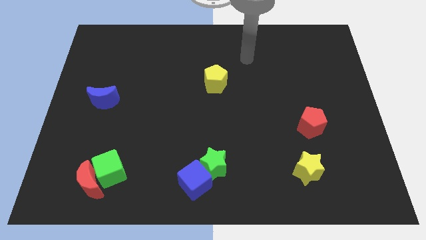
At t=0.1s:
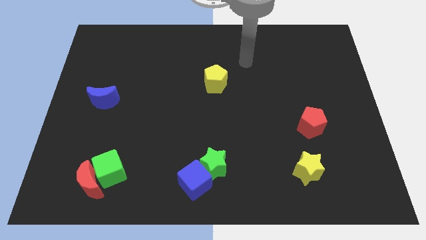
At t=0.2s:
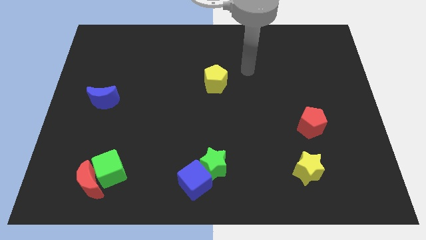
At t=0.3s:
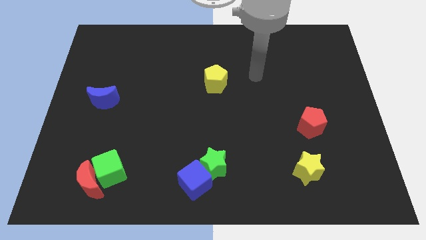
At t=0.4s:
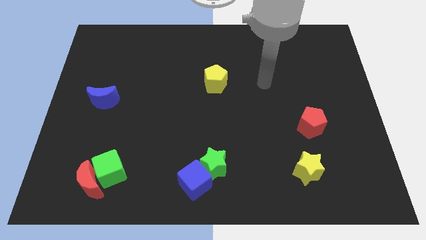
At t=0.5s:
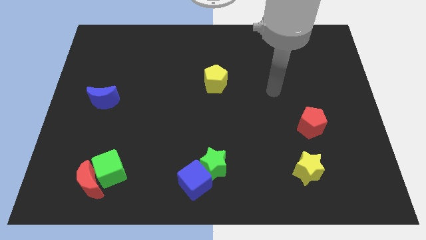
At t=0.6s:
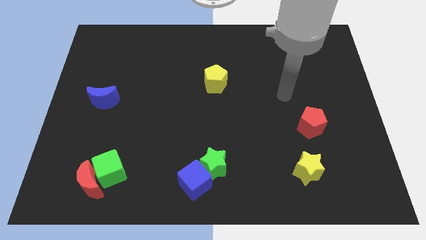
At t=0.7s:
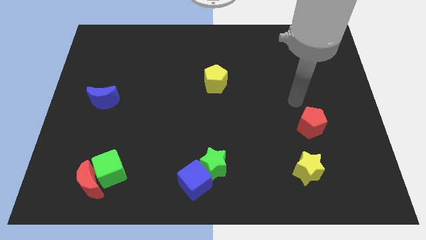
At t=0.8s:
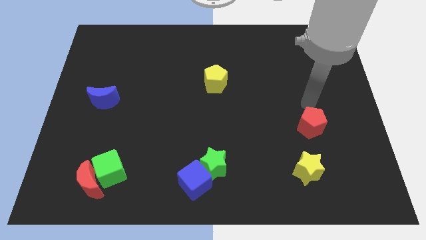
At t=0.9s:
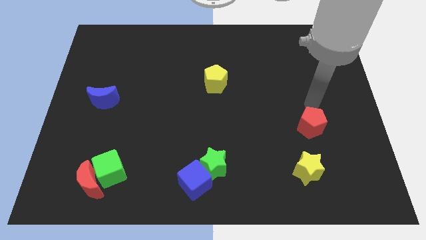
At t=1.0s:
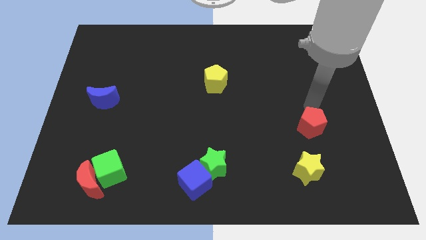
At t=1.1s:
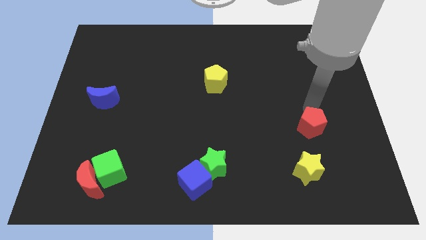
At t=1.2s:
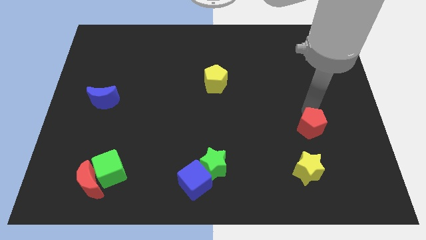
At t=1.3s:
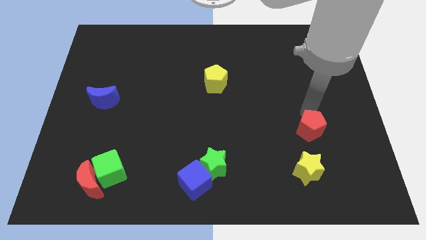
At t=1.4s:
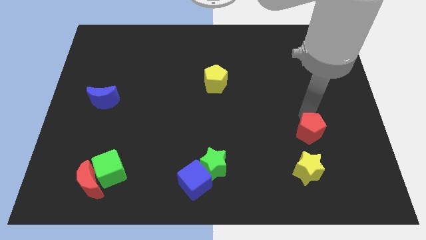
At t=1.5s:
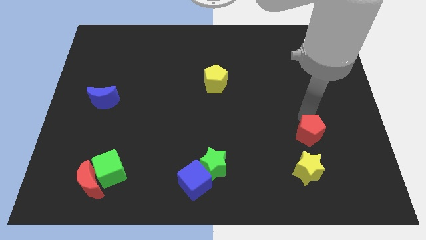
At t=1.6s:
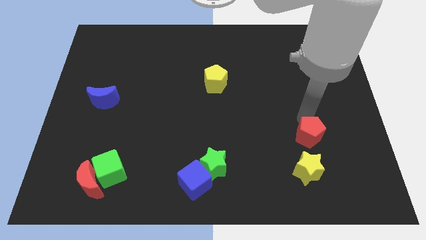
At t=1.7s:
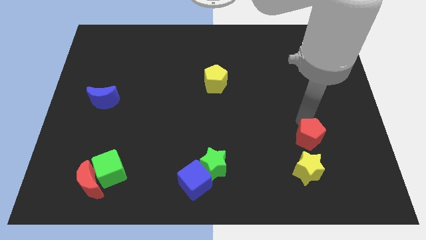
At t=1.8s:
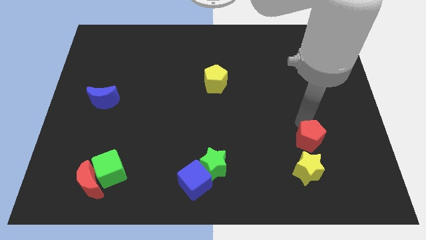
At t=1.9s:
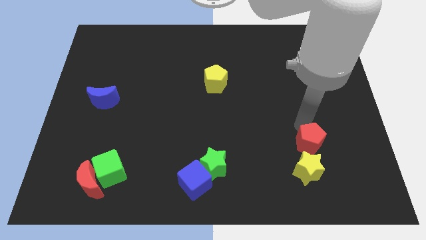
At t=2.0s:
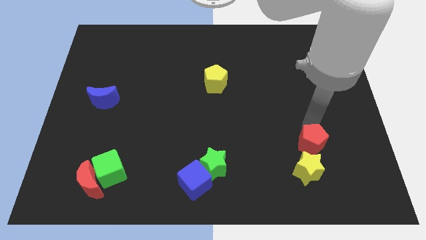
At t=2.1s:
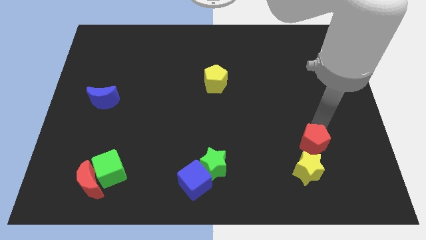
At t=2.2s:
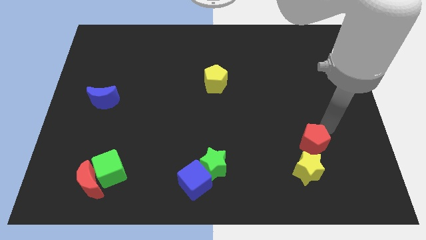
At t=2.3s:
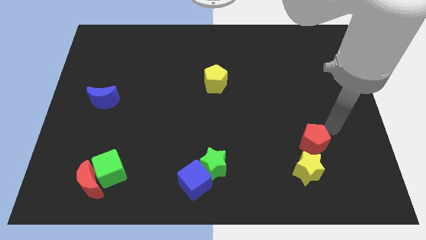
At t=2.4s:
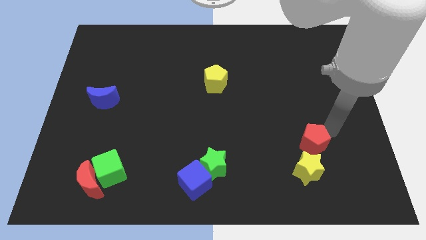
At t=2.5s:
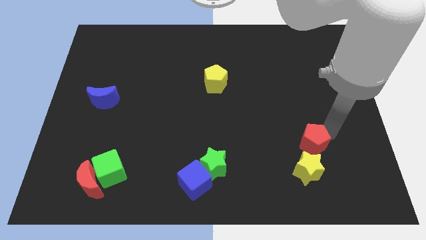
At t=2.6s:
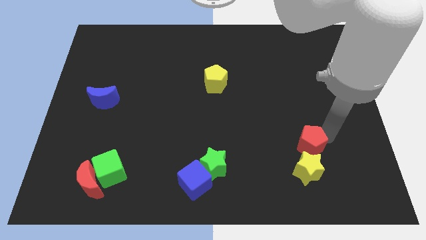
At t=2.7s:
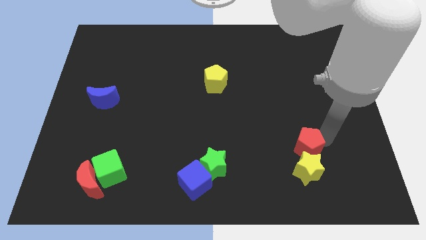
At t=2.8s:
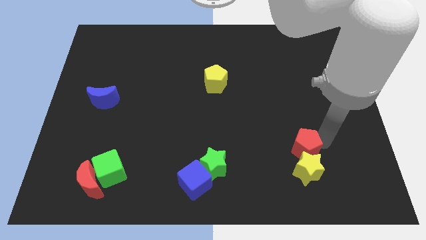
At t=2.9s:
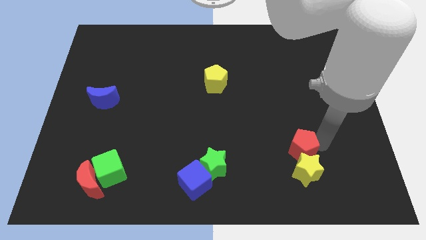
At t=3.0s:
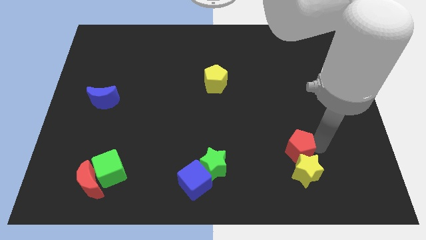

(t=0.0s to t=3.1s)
push the red pentagon downwards and then to the left somewhat

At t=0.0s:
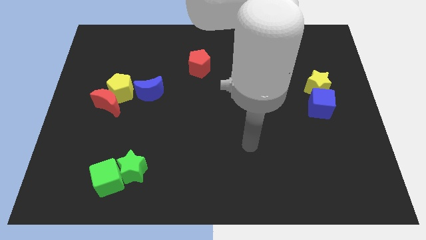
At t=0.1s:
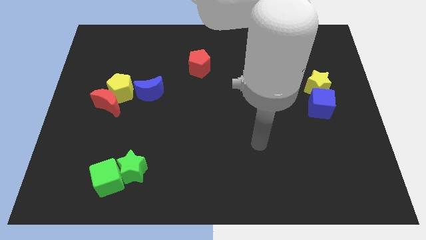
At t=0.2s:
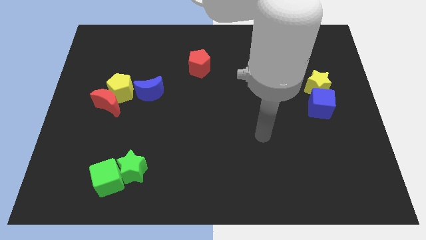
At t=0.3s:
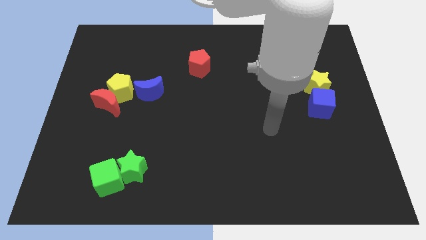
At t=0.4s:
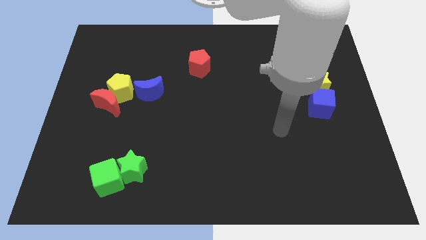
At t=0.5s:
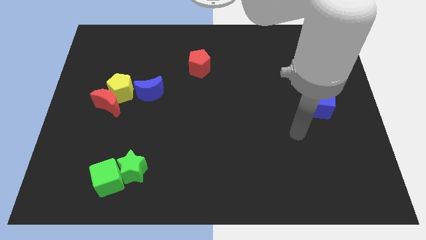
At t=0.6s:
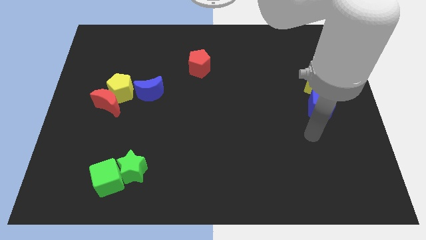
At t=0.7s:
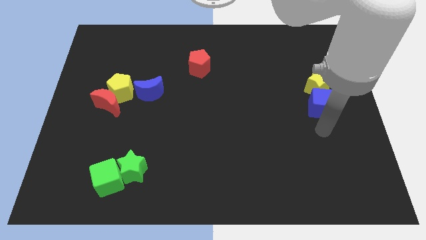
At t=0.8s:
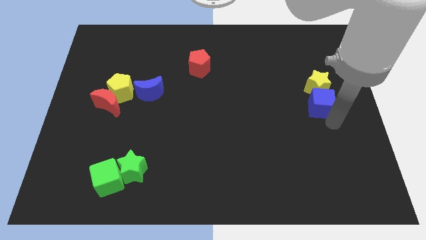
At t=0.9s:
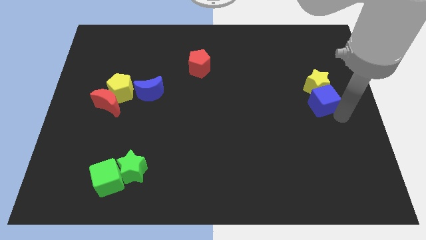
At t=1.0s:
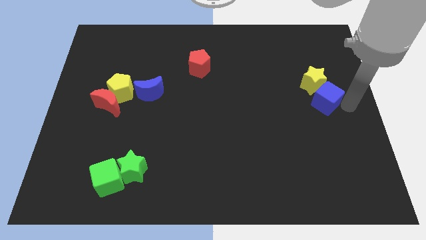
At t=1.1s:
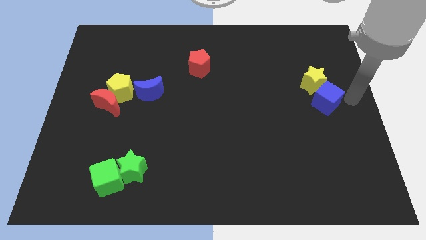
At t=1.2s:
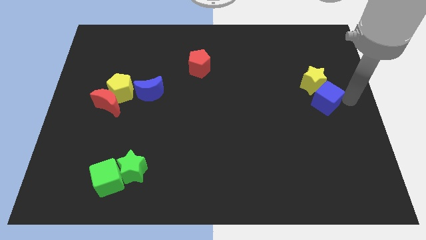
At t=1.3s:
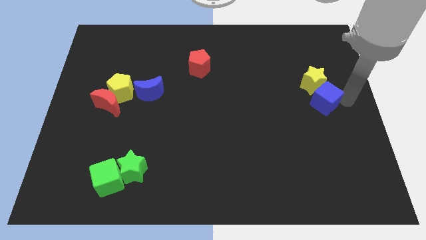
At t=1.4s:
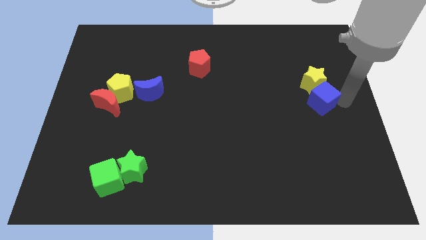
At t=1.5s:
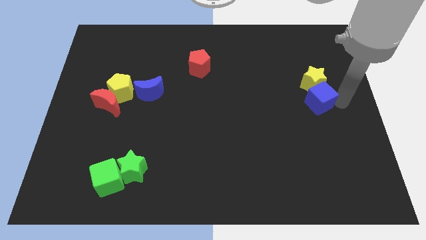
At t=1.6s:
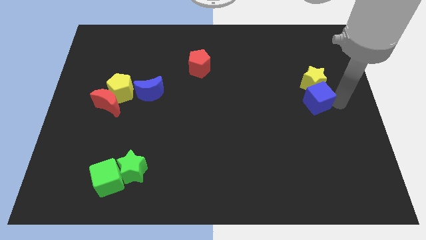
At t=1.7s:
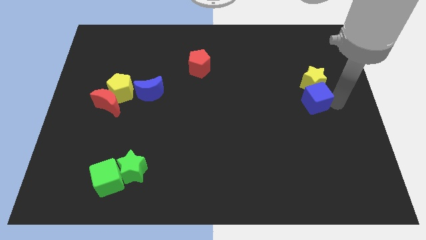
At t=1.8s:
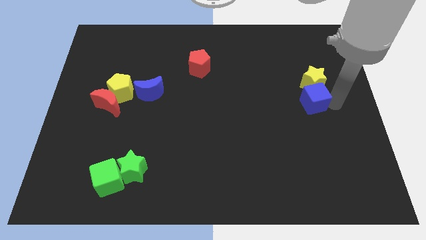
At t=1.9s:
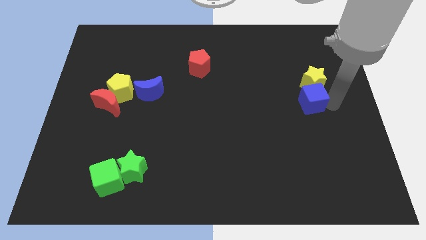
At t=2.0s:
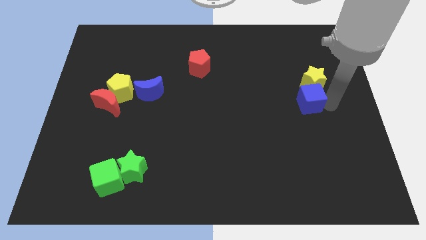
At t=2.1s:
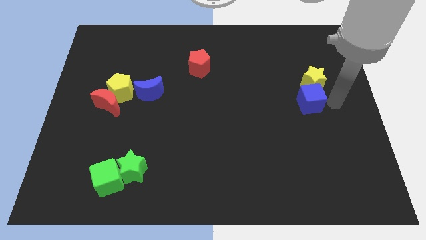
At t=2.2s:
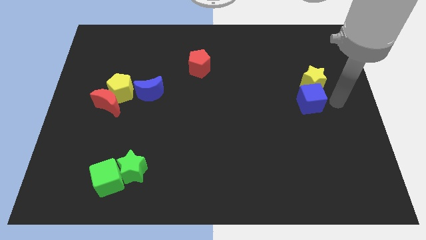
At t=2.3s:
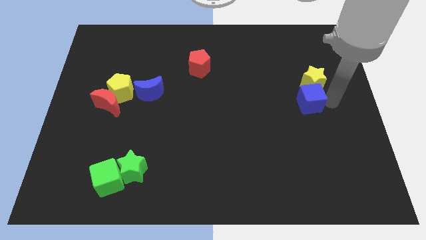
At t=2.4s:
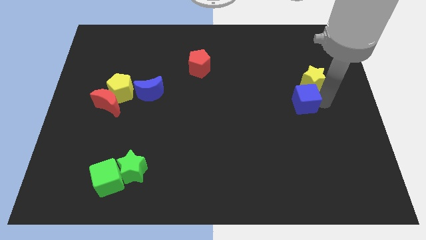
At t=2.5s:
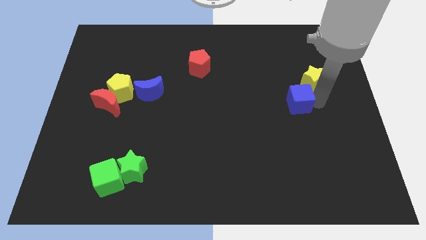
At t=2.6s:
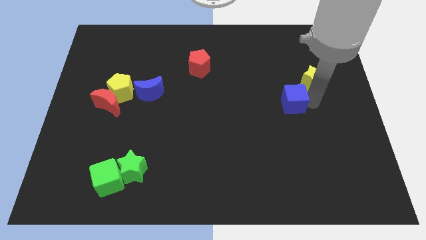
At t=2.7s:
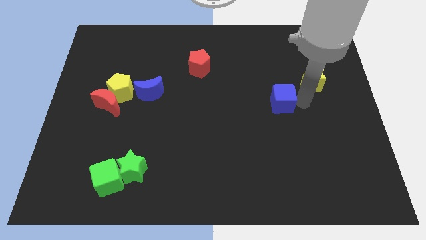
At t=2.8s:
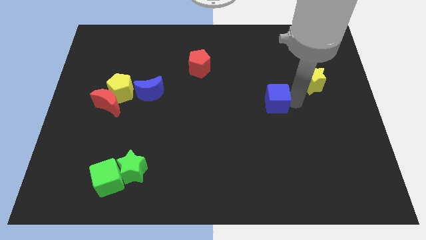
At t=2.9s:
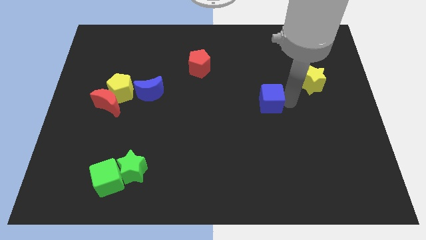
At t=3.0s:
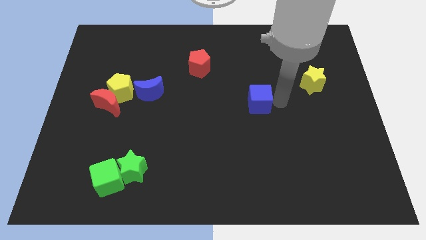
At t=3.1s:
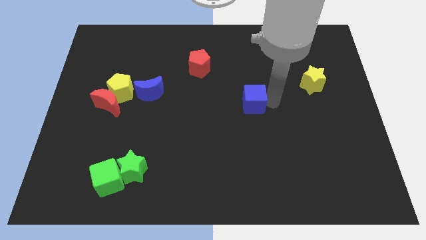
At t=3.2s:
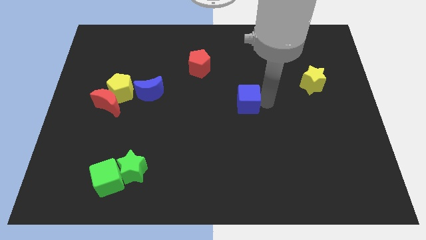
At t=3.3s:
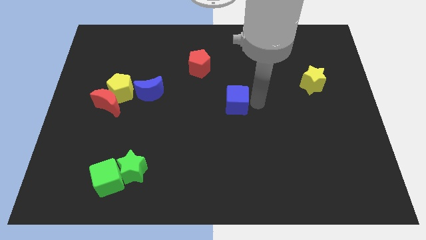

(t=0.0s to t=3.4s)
move the blue cube to the left

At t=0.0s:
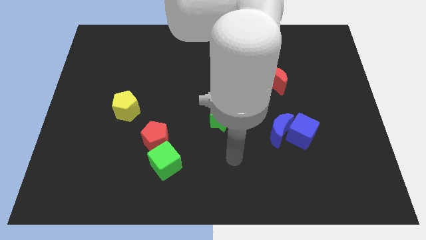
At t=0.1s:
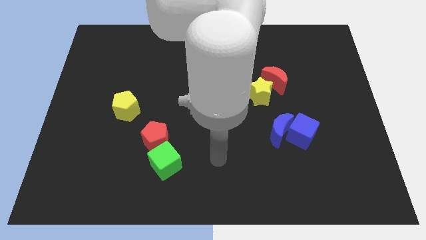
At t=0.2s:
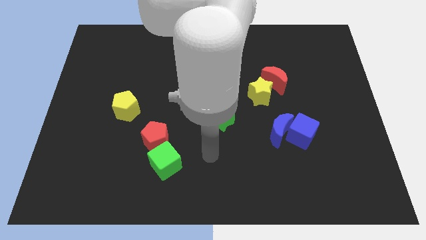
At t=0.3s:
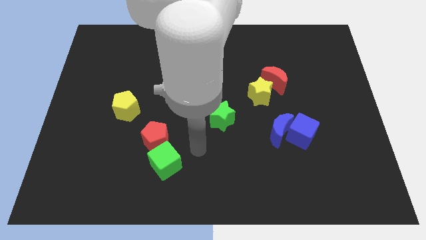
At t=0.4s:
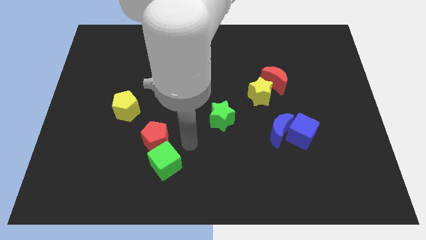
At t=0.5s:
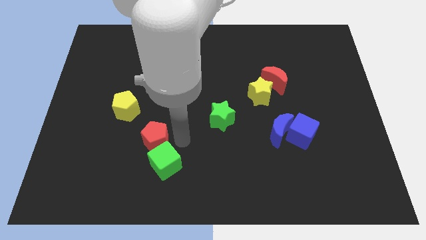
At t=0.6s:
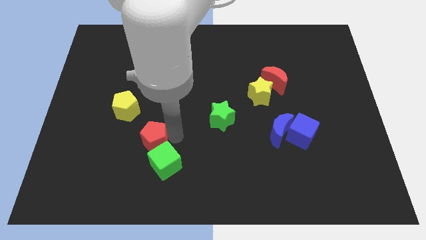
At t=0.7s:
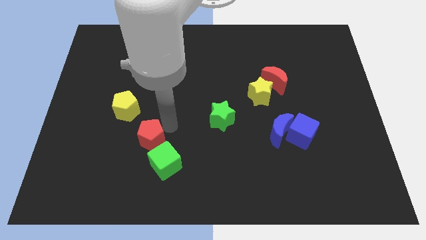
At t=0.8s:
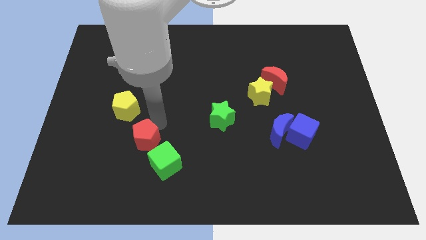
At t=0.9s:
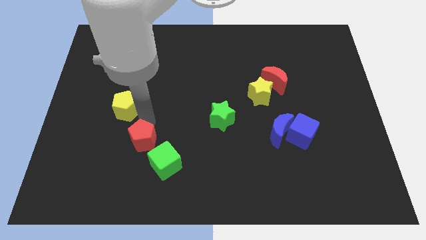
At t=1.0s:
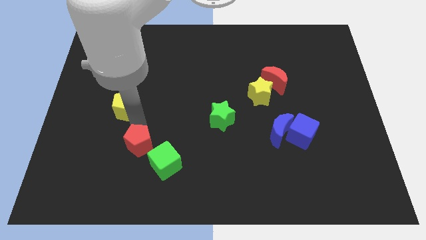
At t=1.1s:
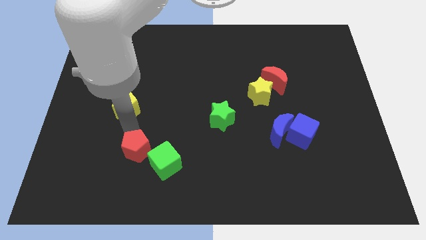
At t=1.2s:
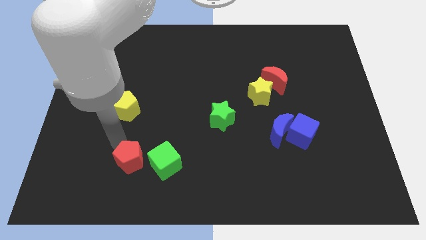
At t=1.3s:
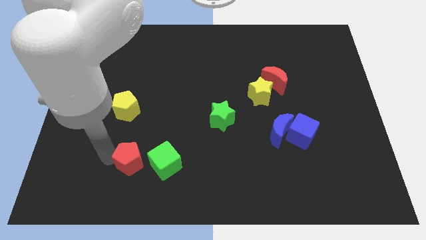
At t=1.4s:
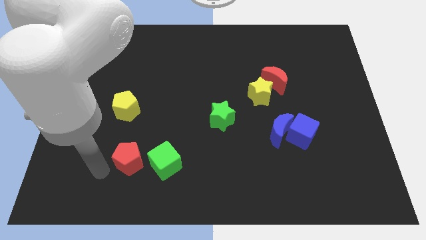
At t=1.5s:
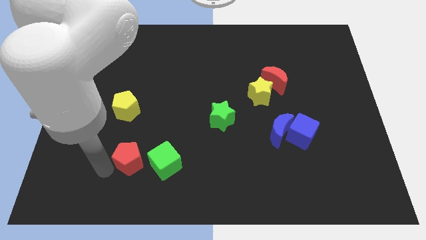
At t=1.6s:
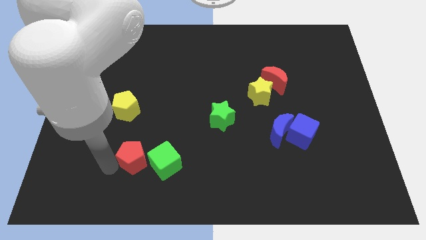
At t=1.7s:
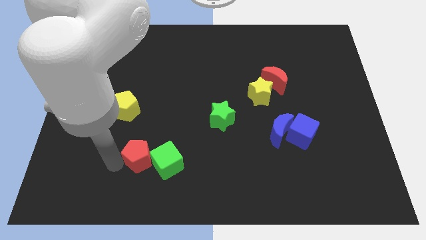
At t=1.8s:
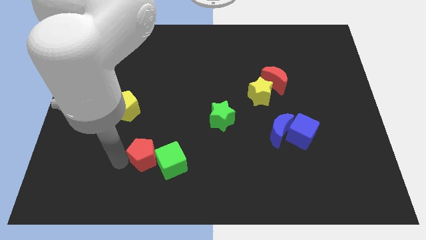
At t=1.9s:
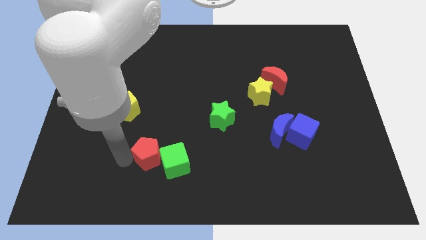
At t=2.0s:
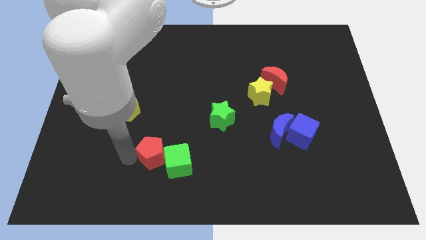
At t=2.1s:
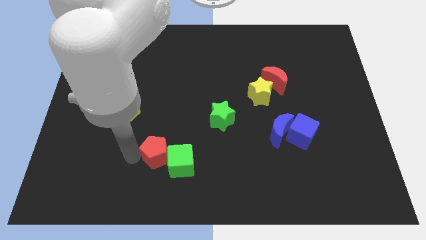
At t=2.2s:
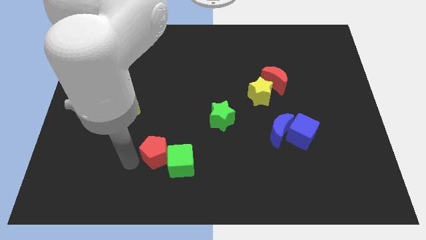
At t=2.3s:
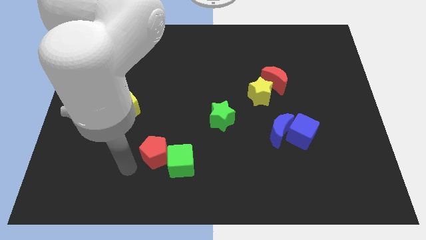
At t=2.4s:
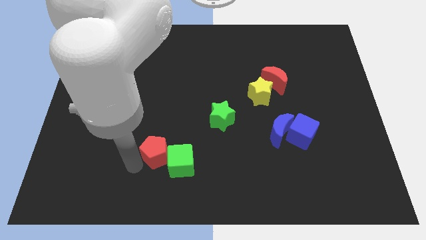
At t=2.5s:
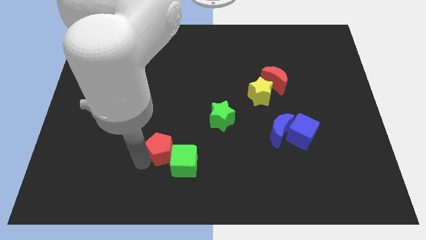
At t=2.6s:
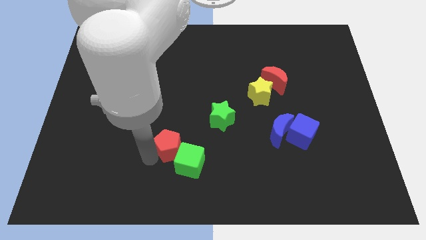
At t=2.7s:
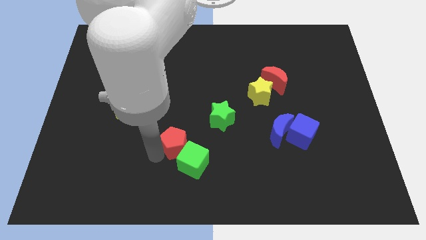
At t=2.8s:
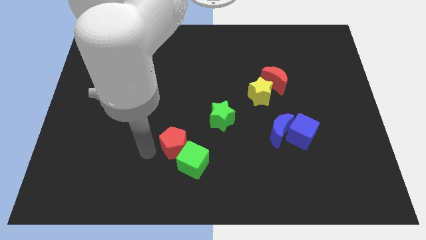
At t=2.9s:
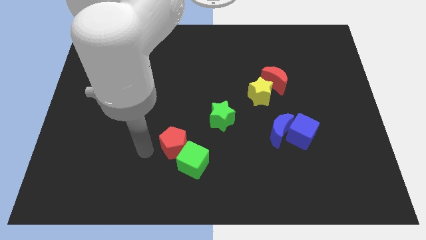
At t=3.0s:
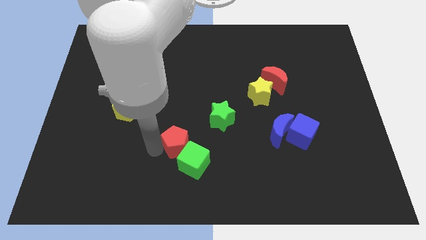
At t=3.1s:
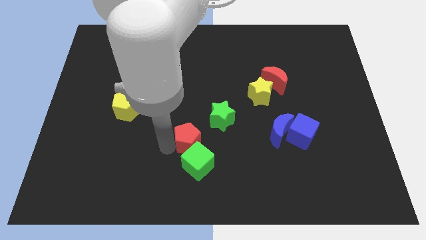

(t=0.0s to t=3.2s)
slightly push the red pentagon to the right
